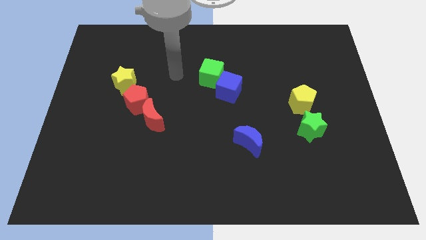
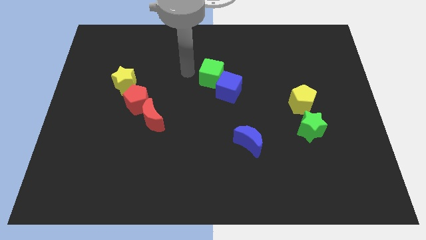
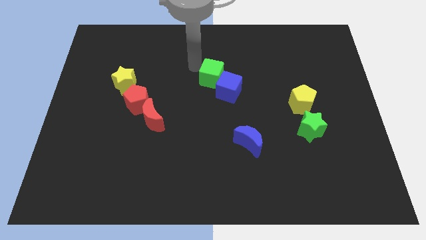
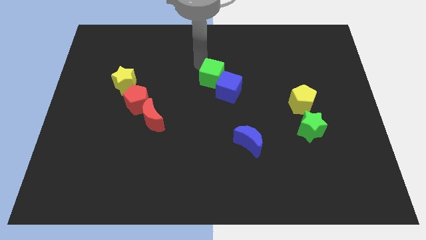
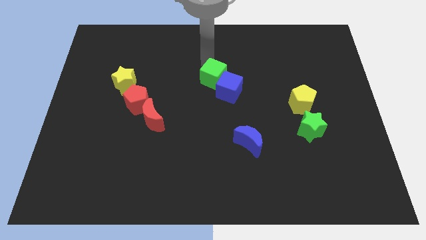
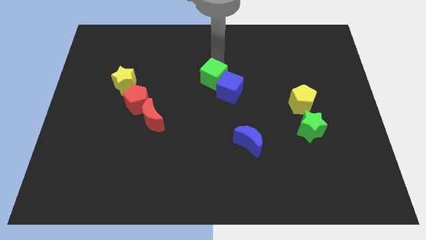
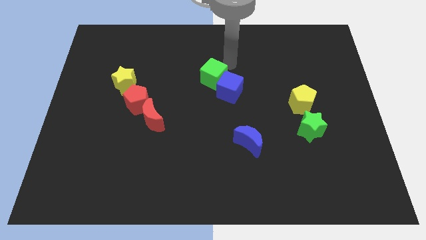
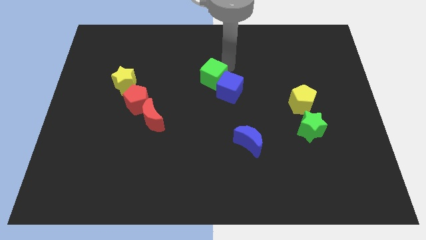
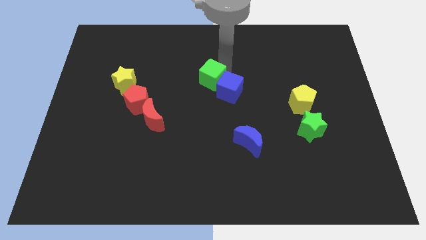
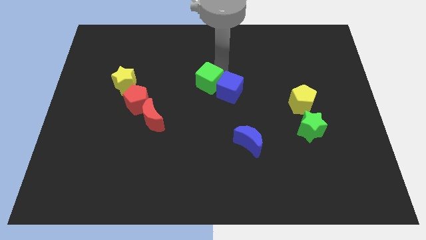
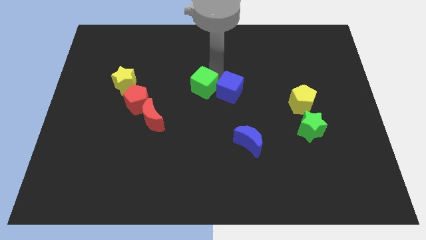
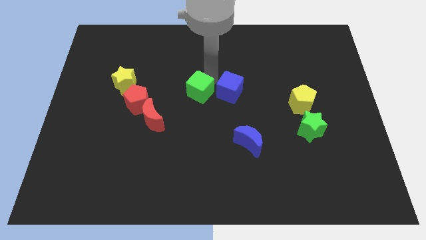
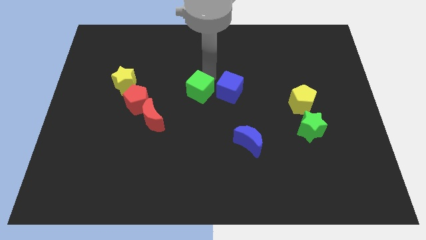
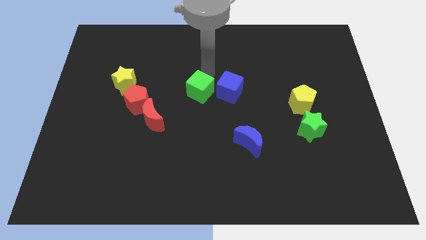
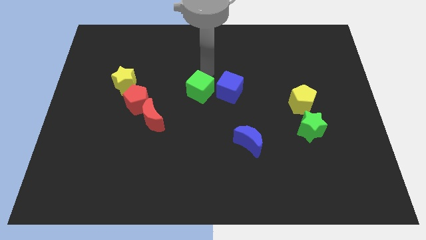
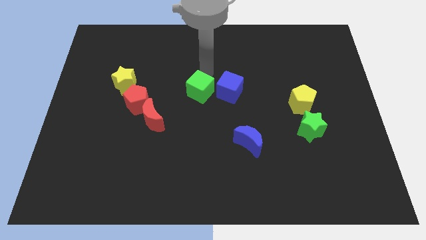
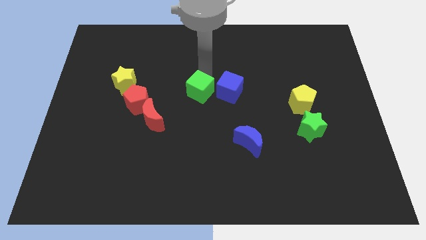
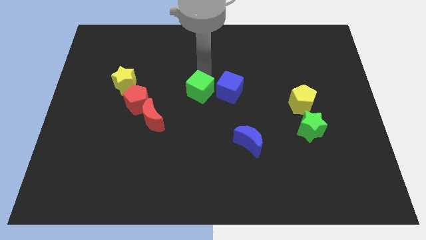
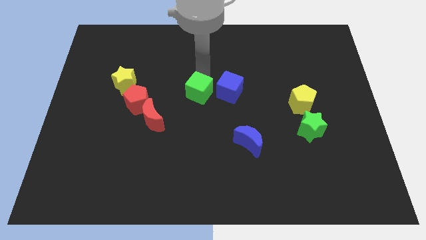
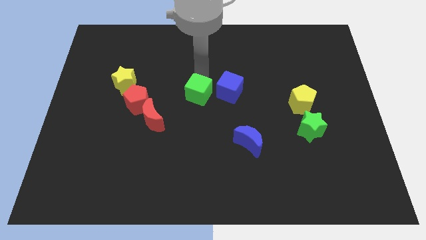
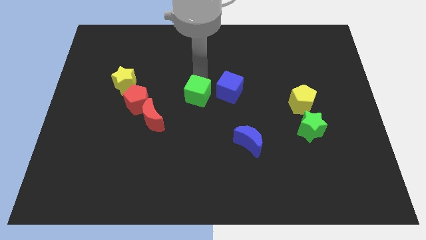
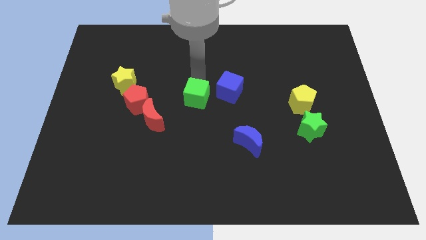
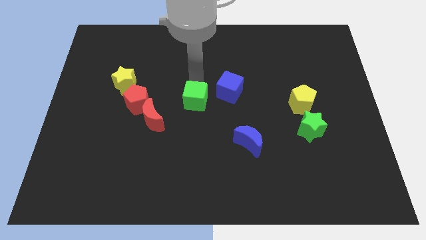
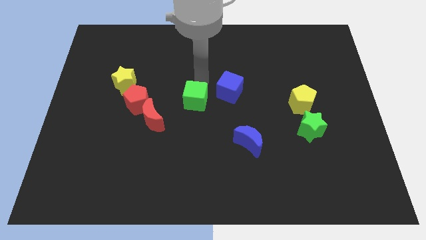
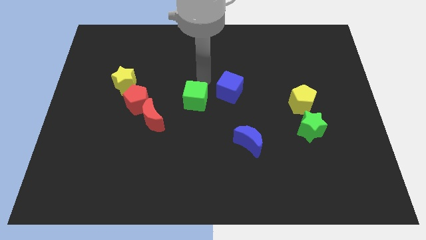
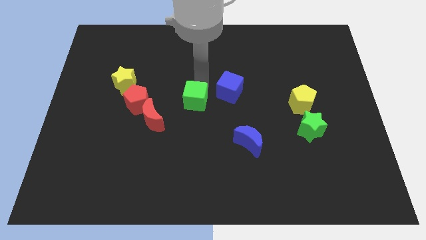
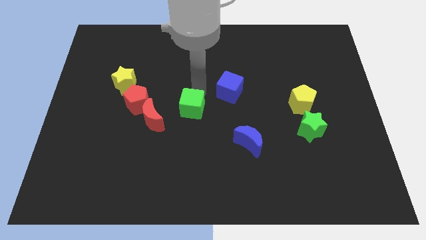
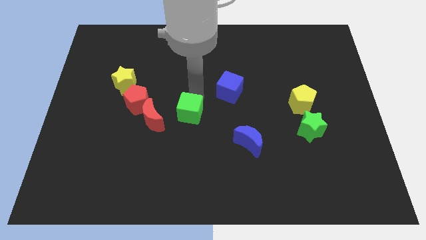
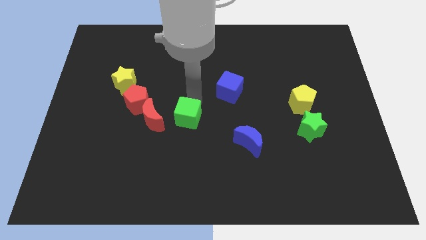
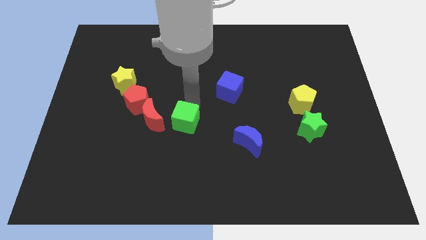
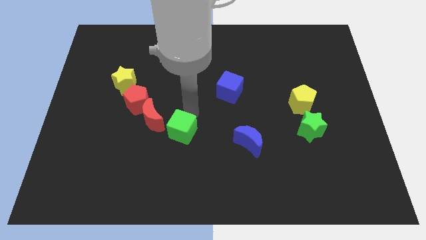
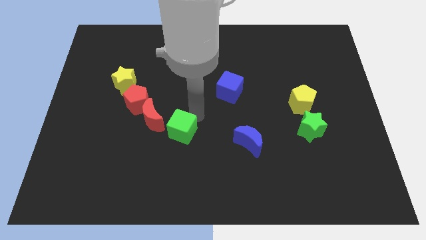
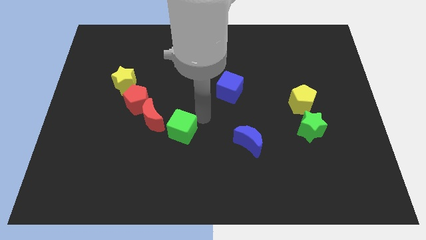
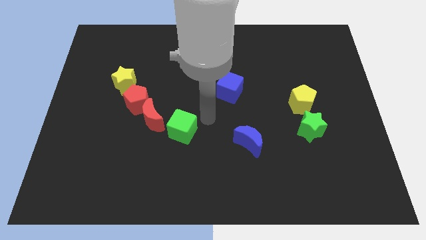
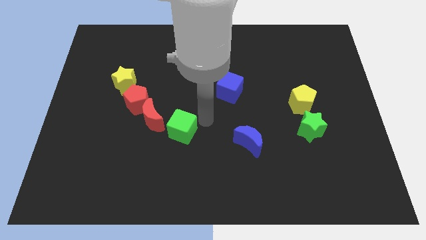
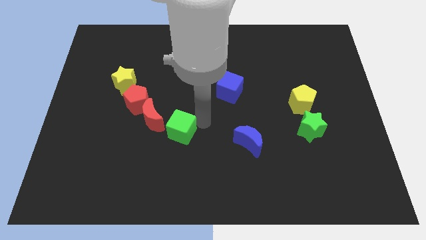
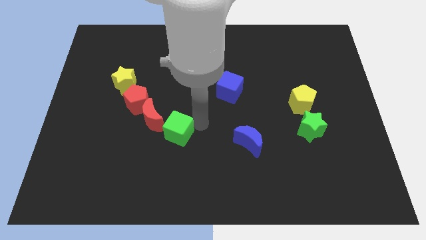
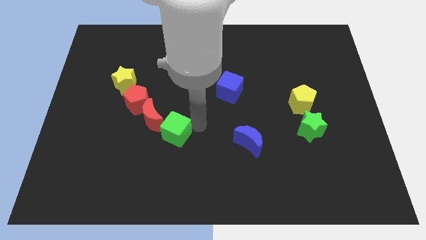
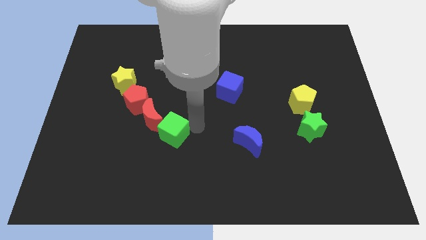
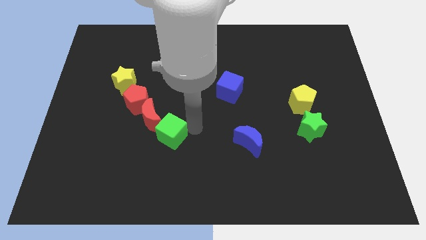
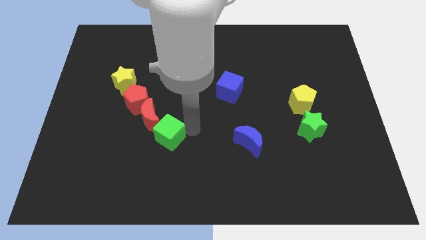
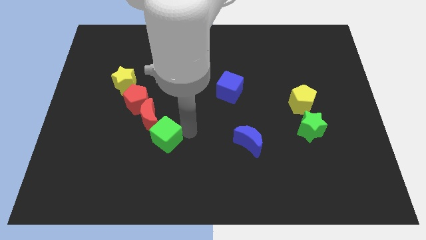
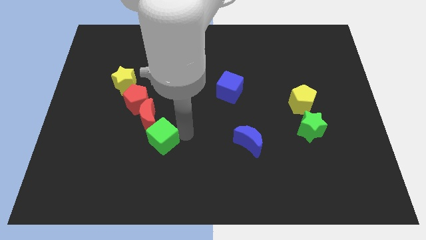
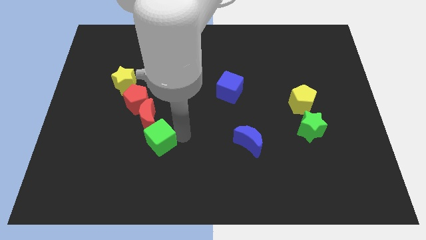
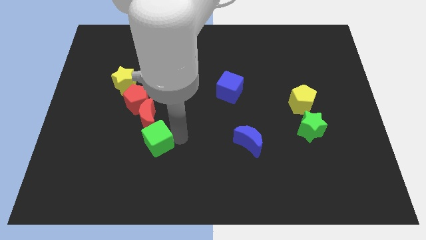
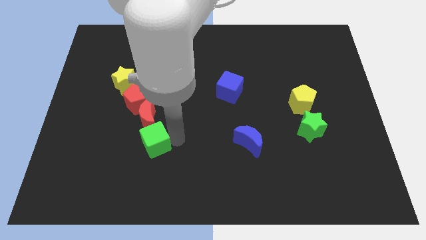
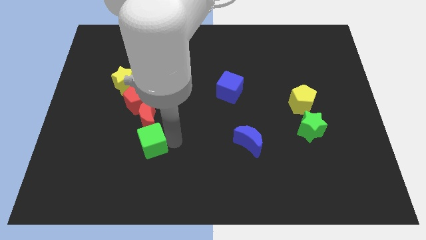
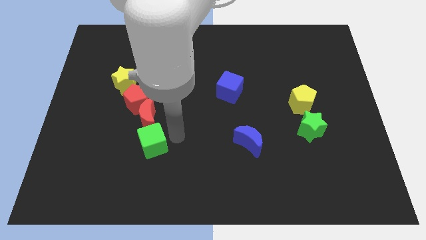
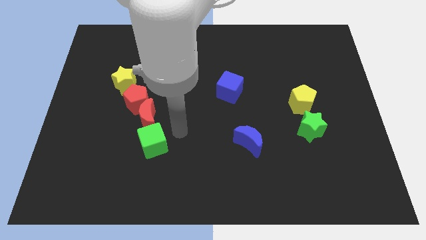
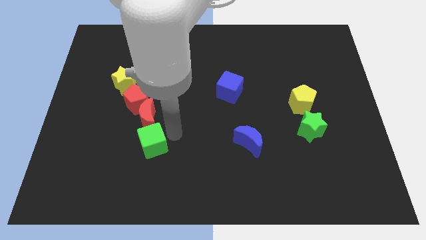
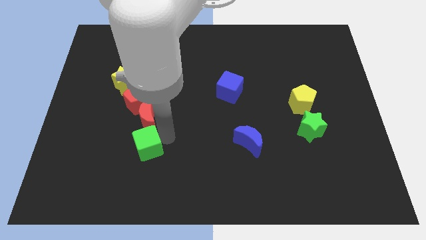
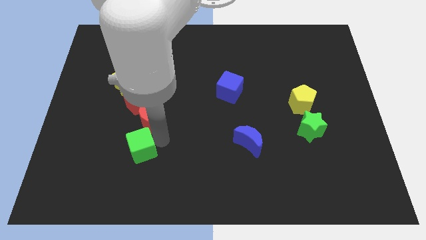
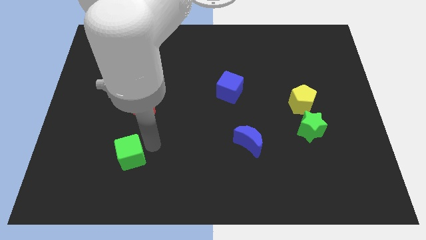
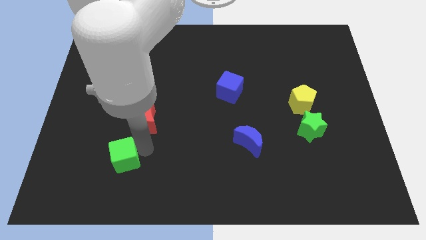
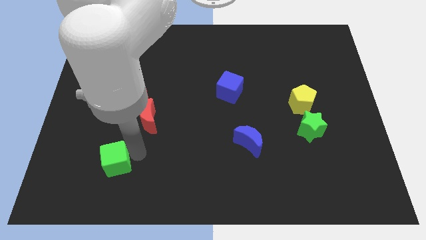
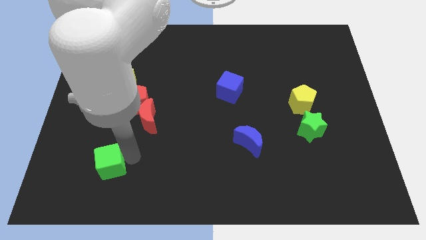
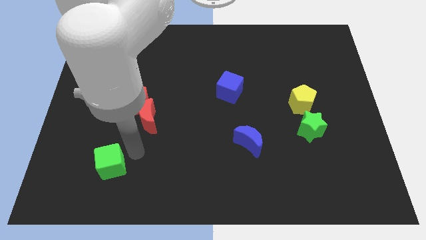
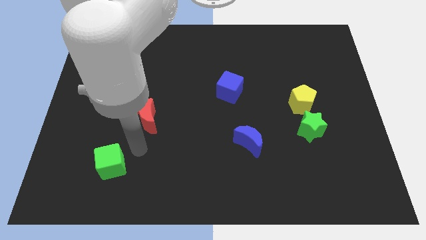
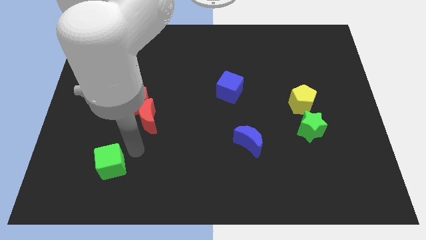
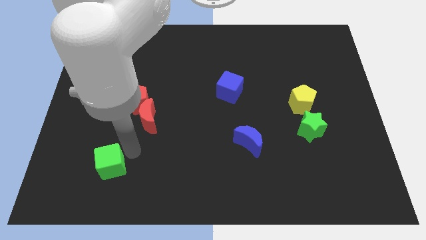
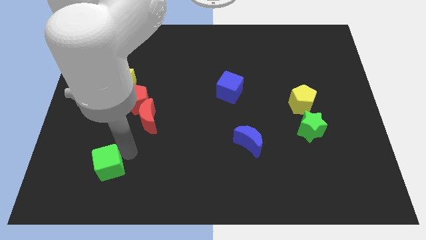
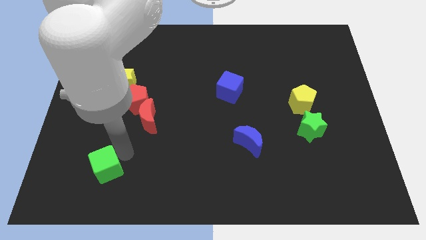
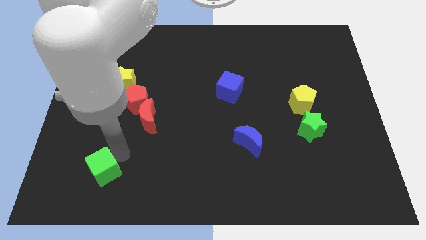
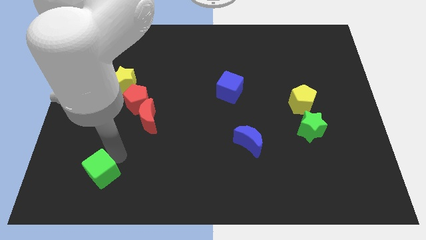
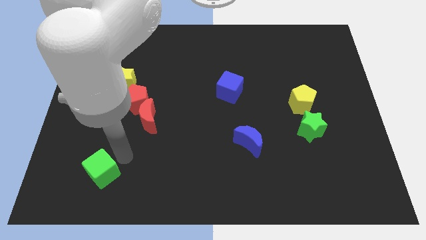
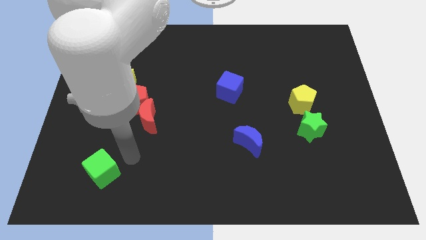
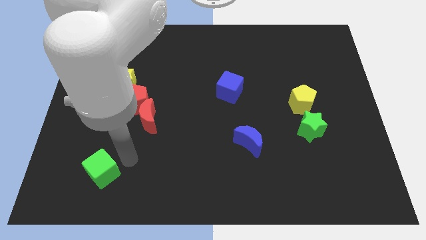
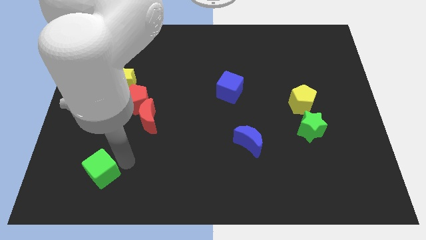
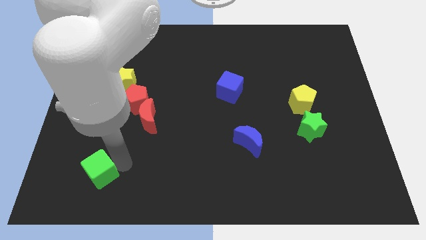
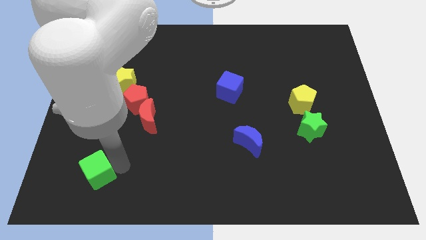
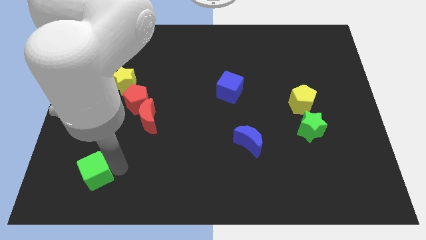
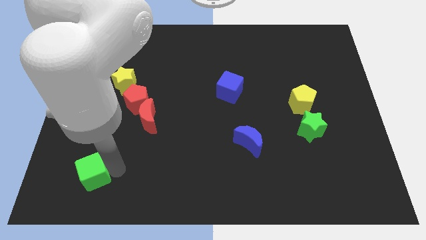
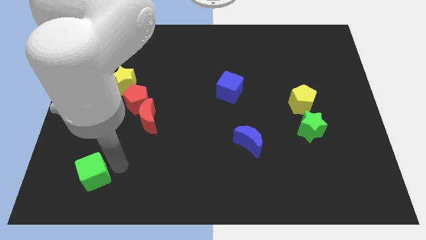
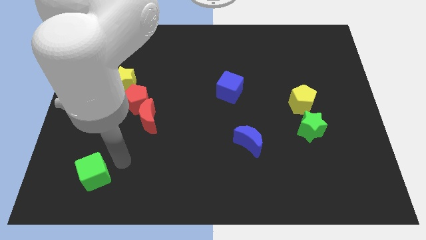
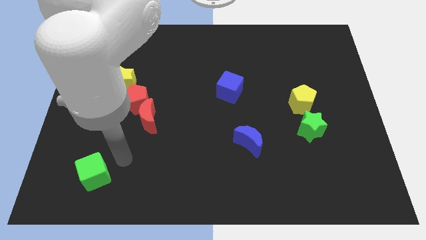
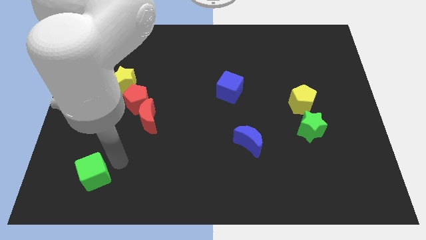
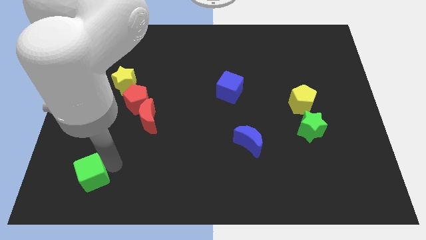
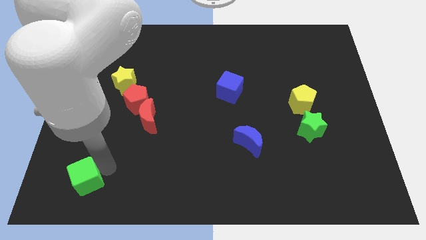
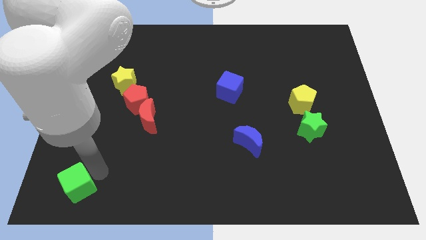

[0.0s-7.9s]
move the green cube to the lower left corner
